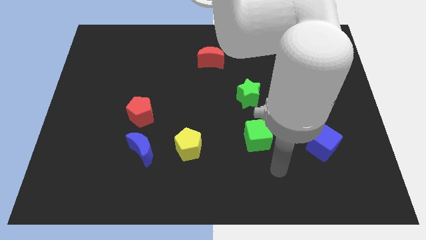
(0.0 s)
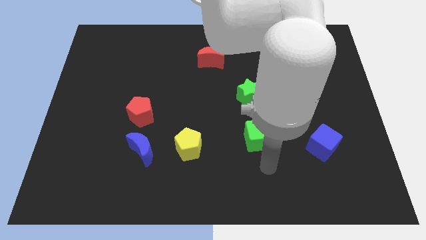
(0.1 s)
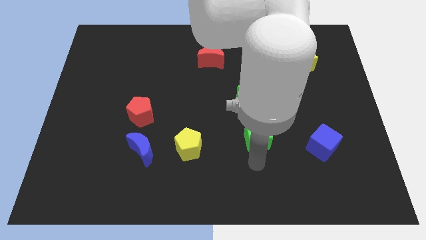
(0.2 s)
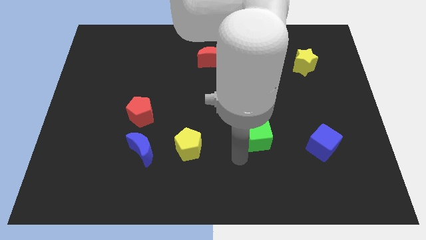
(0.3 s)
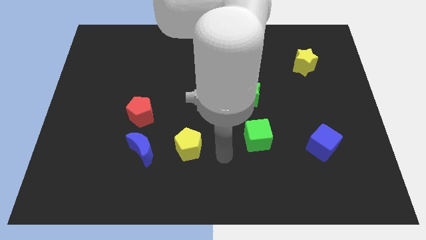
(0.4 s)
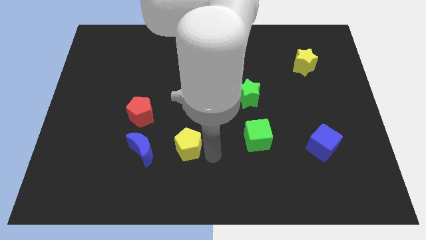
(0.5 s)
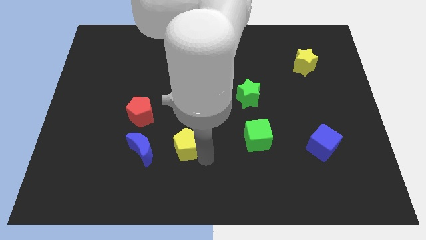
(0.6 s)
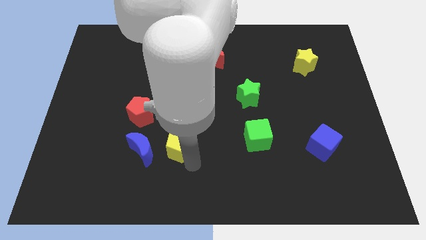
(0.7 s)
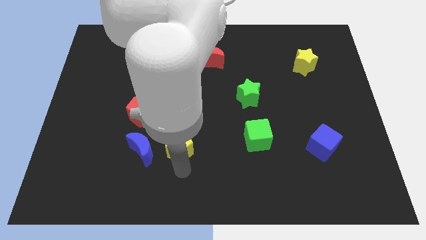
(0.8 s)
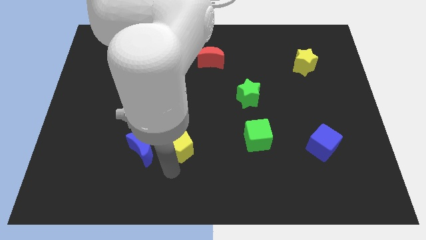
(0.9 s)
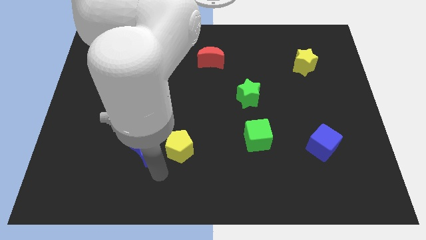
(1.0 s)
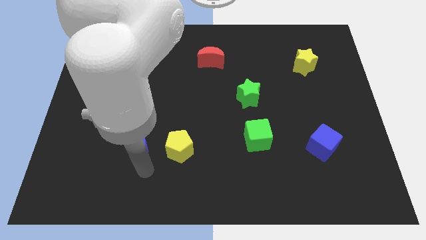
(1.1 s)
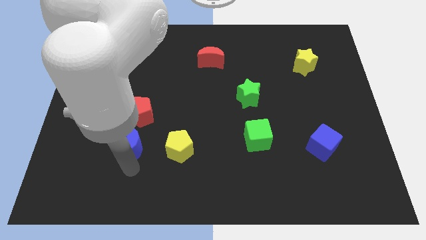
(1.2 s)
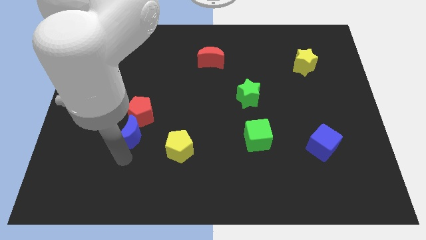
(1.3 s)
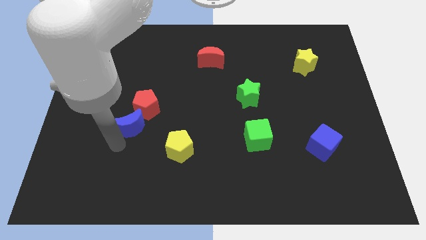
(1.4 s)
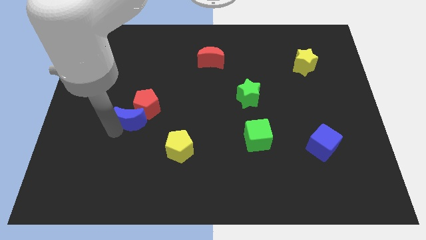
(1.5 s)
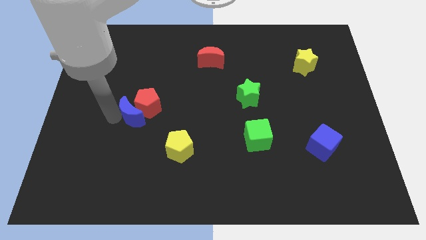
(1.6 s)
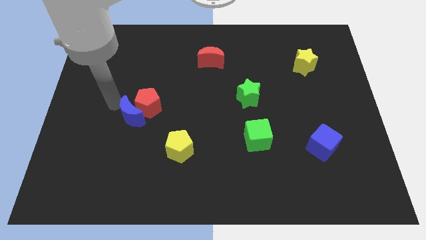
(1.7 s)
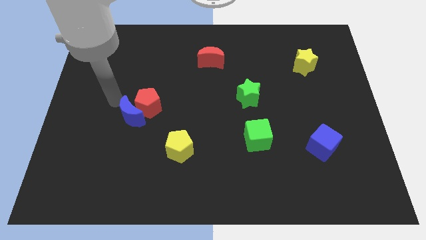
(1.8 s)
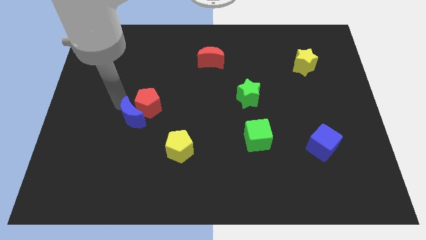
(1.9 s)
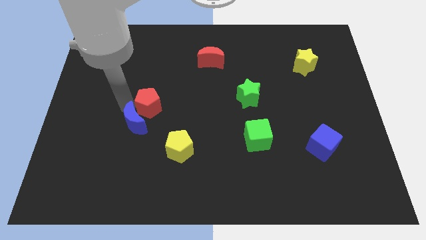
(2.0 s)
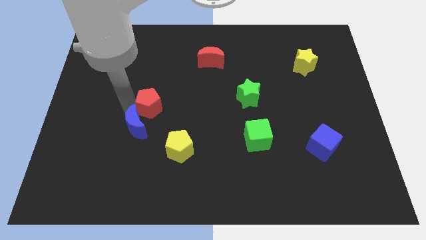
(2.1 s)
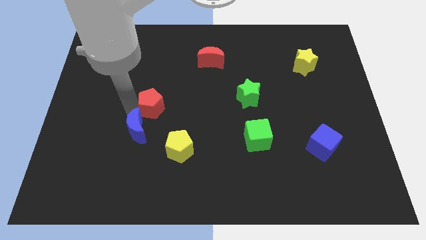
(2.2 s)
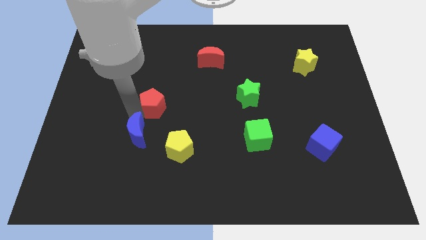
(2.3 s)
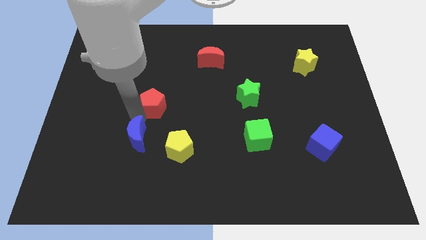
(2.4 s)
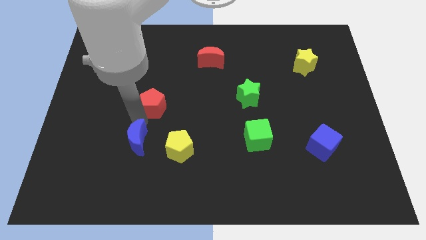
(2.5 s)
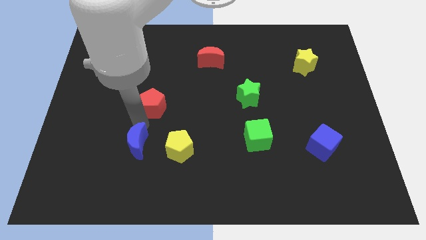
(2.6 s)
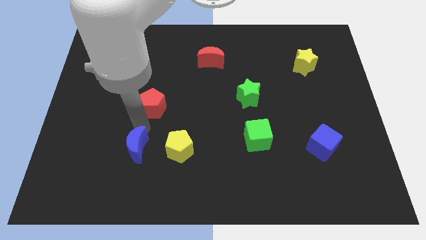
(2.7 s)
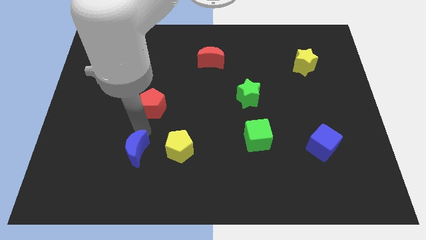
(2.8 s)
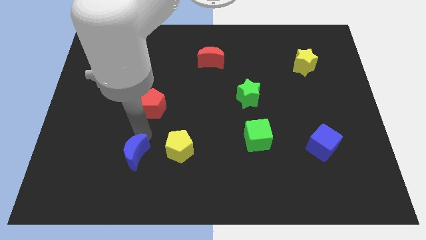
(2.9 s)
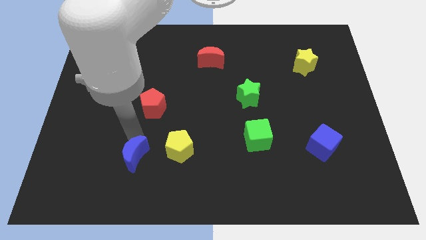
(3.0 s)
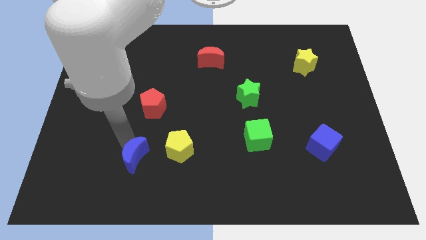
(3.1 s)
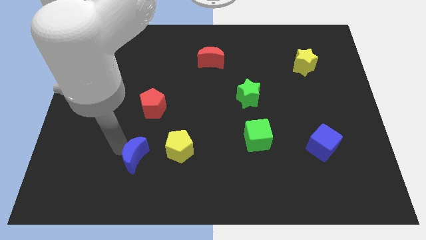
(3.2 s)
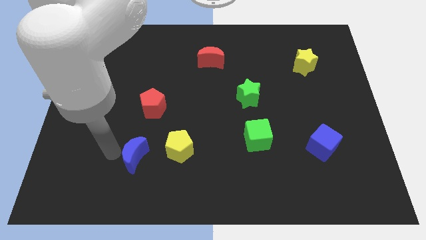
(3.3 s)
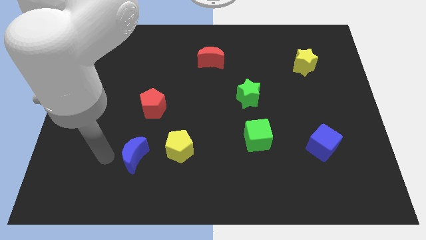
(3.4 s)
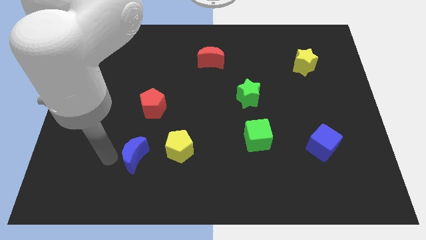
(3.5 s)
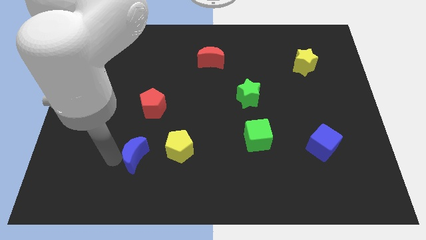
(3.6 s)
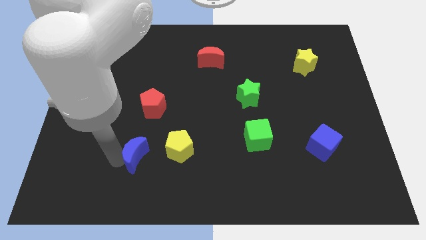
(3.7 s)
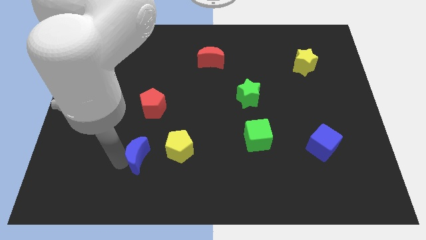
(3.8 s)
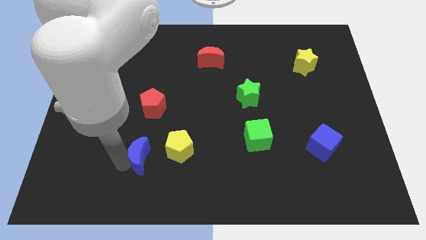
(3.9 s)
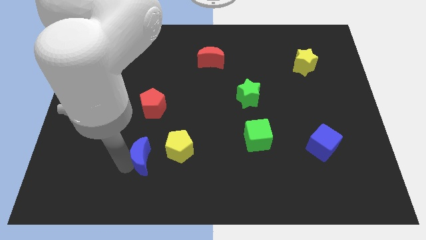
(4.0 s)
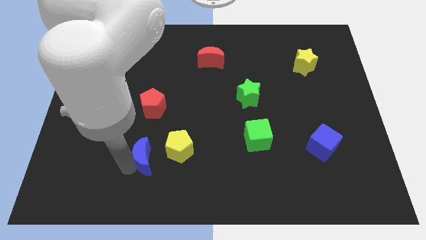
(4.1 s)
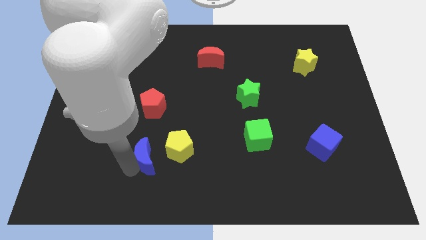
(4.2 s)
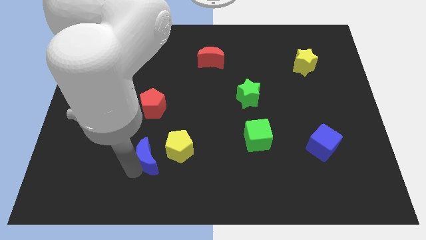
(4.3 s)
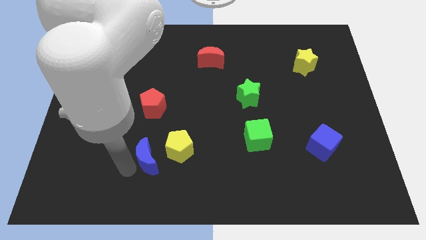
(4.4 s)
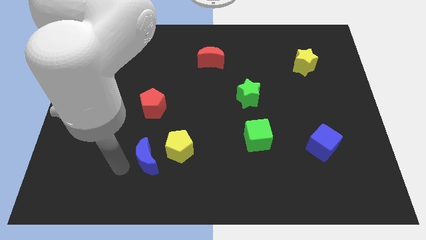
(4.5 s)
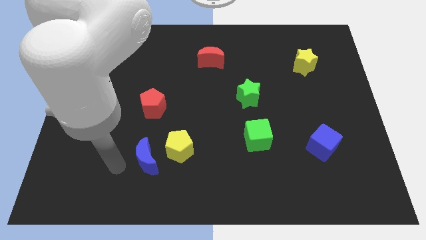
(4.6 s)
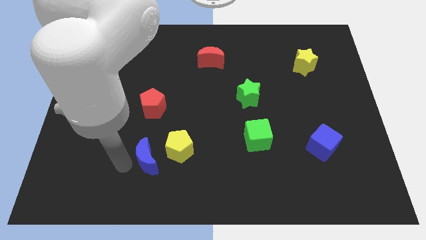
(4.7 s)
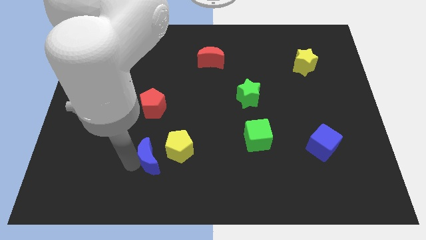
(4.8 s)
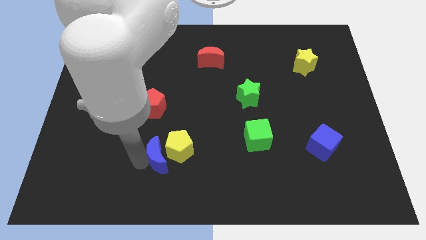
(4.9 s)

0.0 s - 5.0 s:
slide the blue moon next to the yellow pentagon

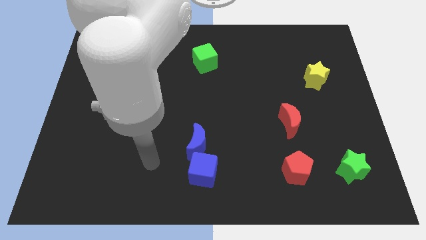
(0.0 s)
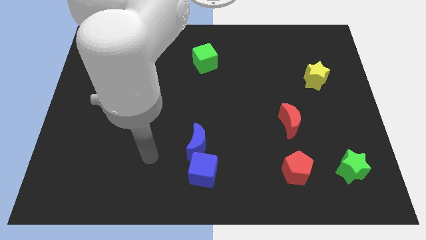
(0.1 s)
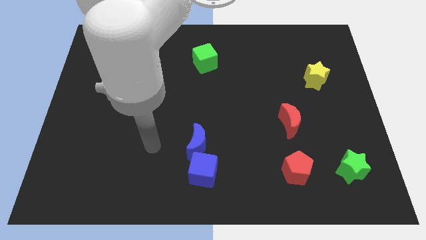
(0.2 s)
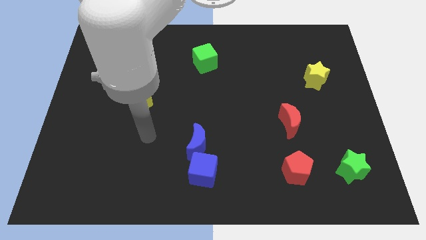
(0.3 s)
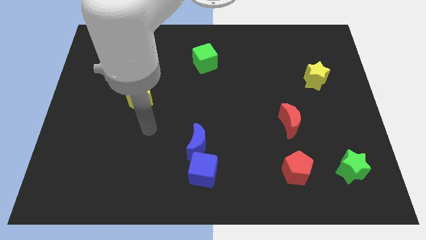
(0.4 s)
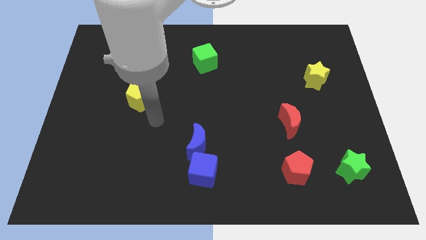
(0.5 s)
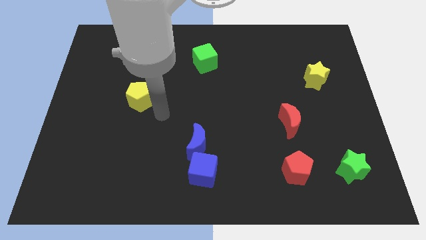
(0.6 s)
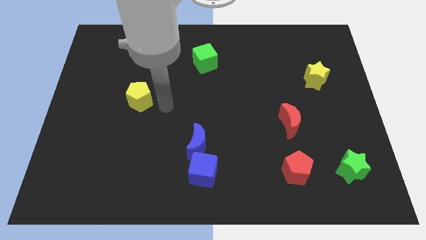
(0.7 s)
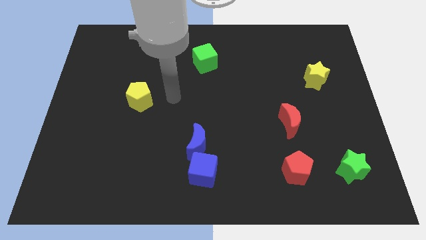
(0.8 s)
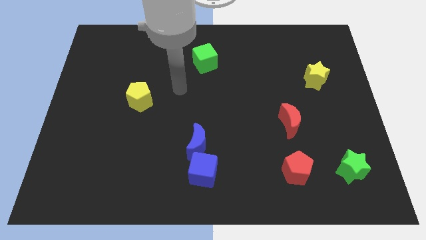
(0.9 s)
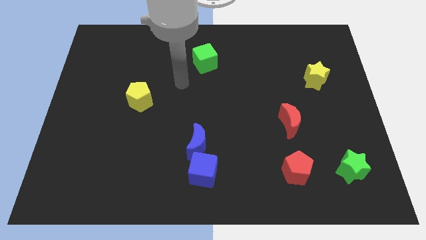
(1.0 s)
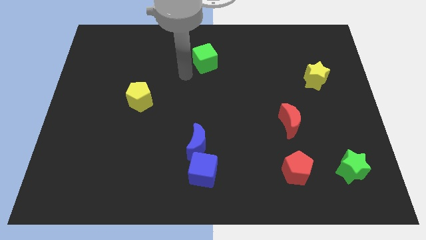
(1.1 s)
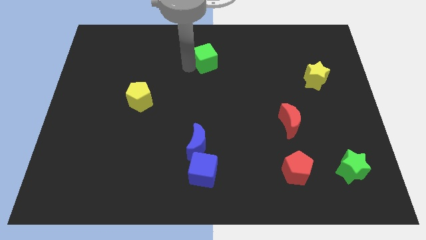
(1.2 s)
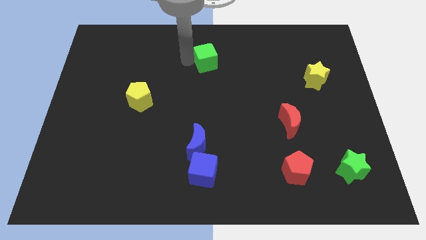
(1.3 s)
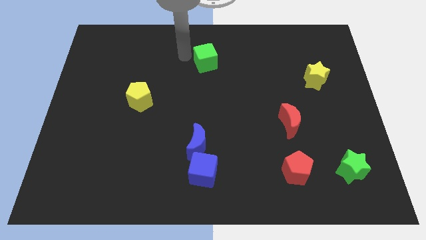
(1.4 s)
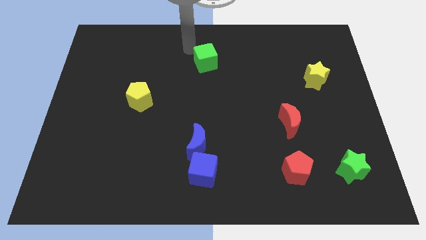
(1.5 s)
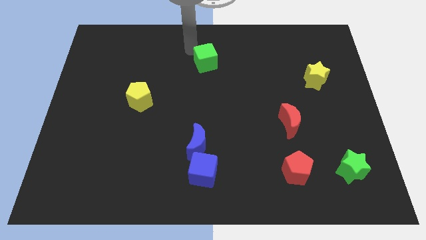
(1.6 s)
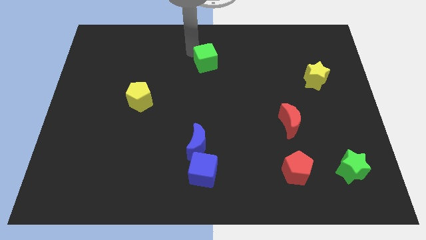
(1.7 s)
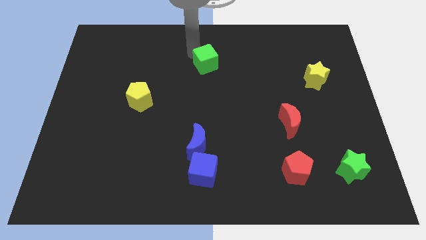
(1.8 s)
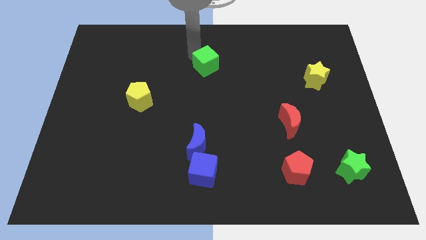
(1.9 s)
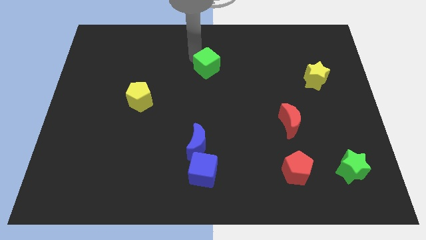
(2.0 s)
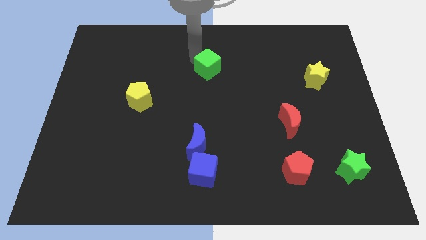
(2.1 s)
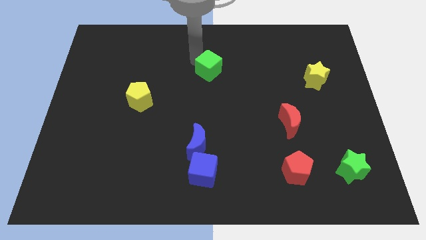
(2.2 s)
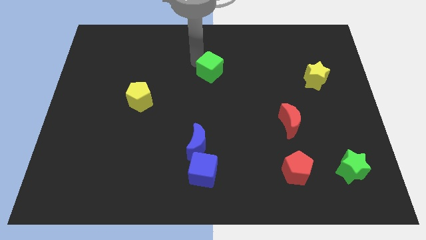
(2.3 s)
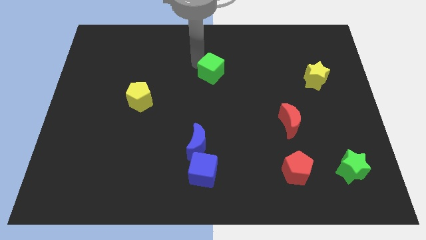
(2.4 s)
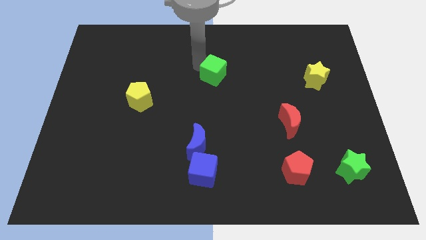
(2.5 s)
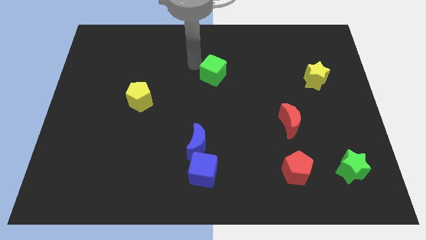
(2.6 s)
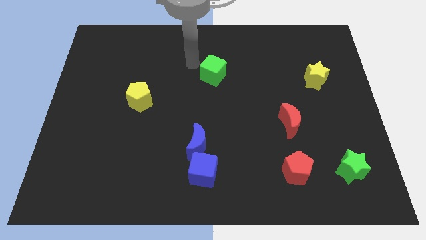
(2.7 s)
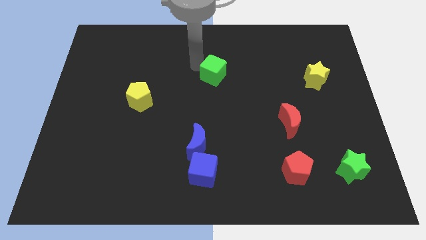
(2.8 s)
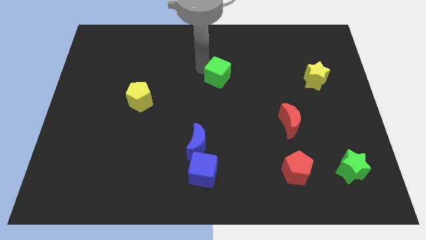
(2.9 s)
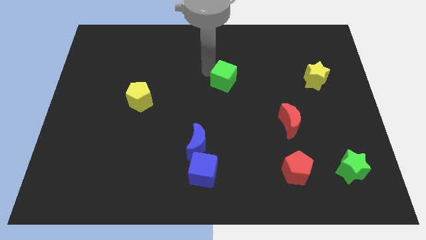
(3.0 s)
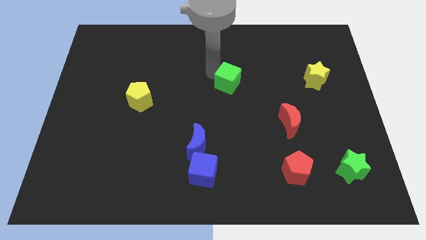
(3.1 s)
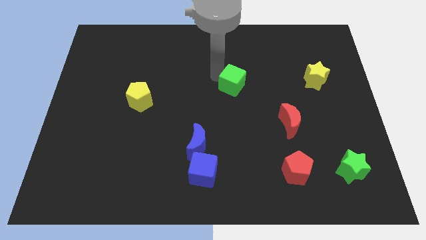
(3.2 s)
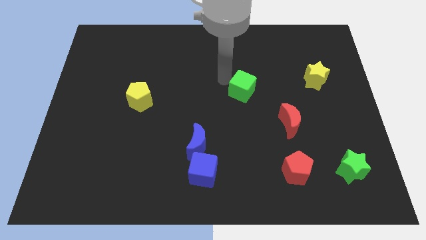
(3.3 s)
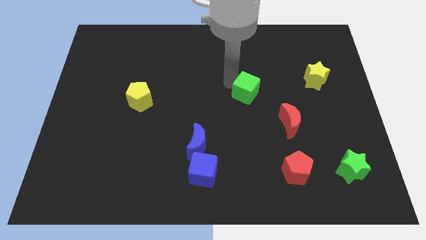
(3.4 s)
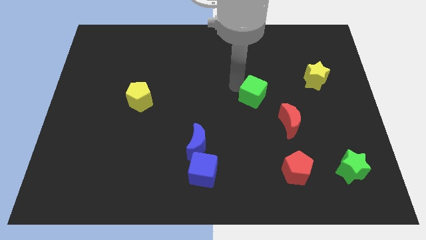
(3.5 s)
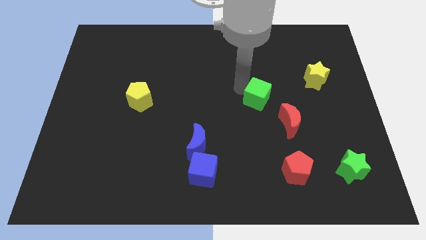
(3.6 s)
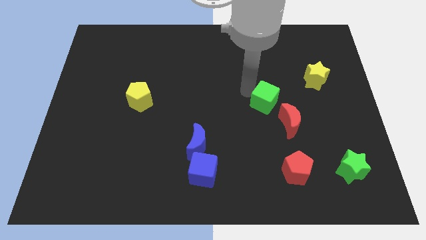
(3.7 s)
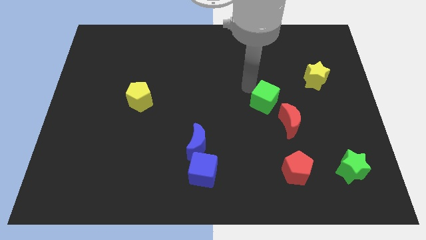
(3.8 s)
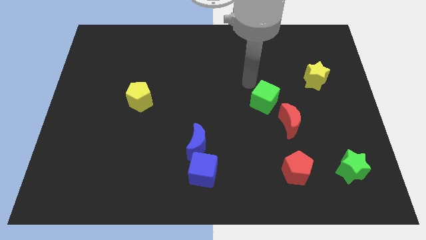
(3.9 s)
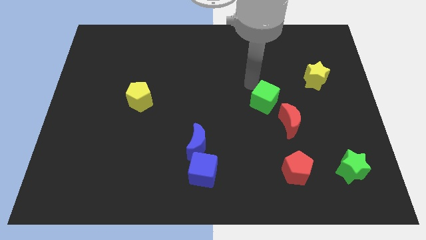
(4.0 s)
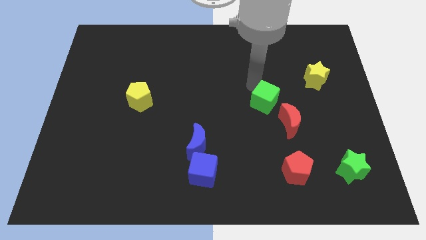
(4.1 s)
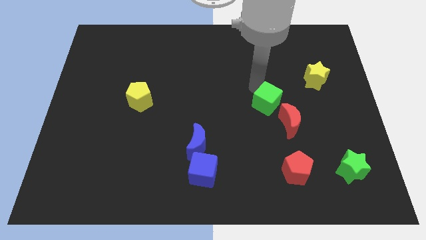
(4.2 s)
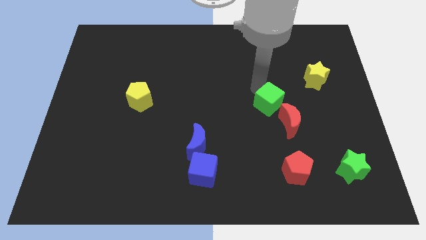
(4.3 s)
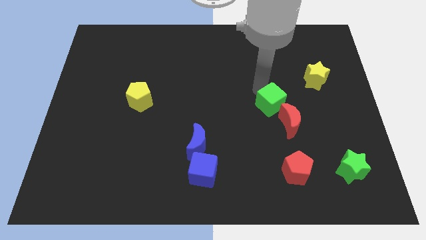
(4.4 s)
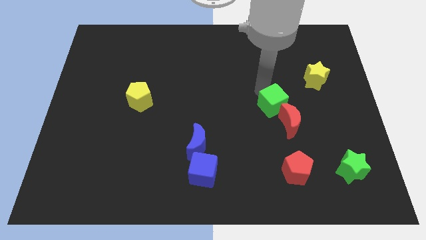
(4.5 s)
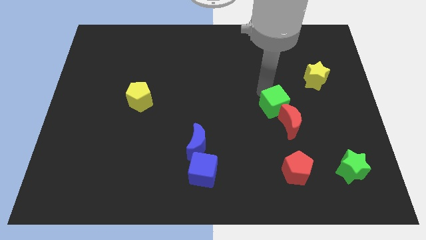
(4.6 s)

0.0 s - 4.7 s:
slide the green cube towards the red moon
